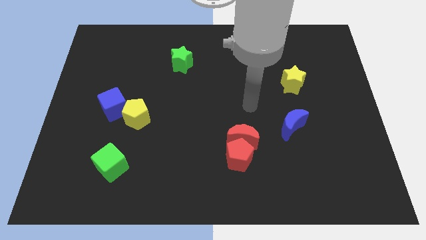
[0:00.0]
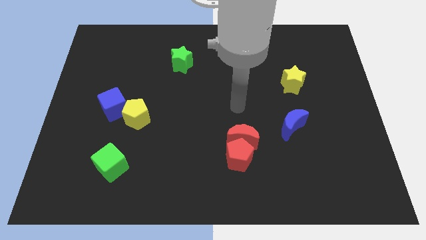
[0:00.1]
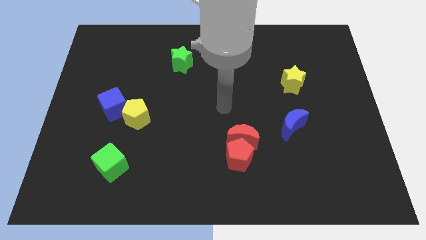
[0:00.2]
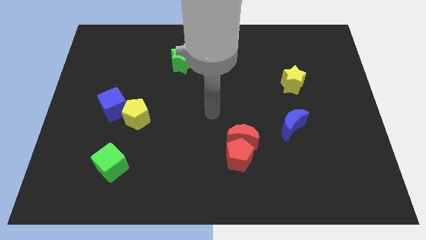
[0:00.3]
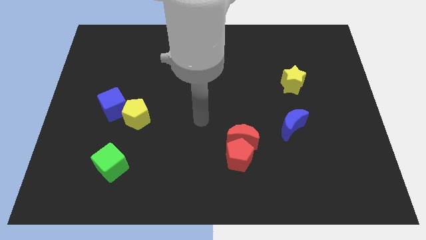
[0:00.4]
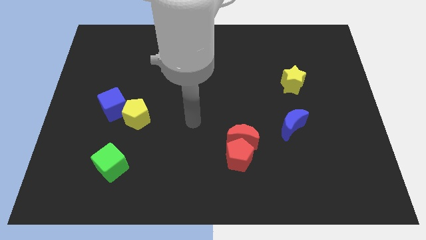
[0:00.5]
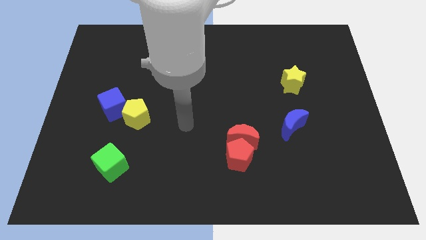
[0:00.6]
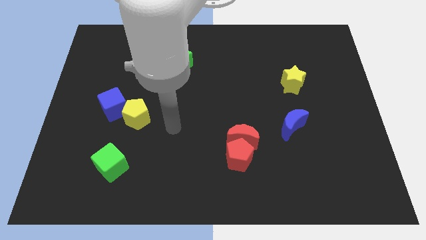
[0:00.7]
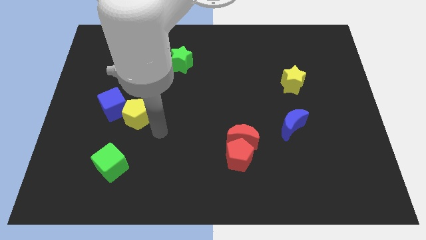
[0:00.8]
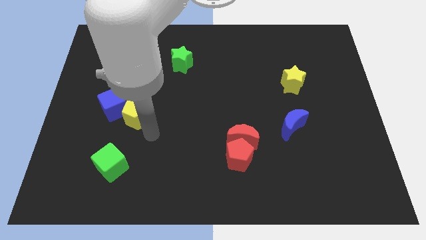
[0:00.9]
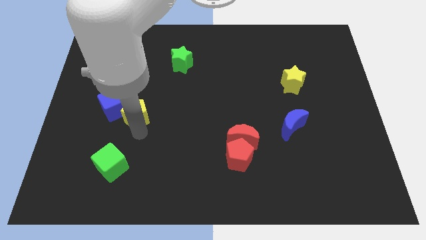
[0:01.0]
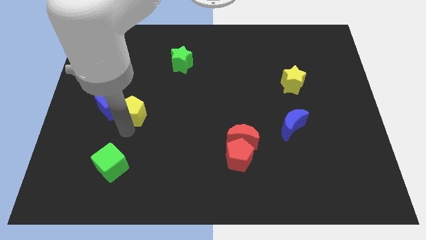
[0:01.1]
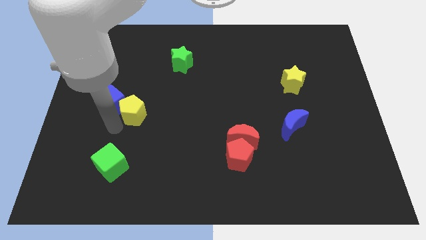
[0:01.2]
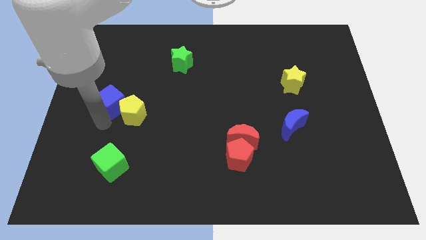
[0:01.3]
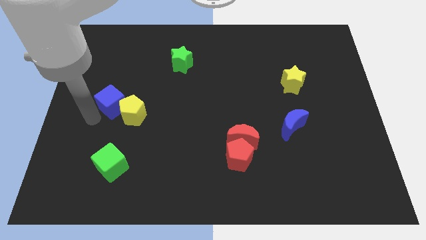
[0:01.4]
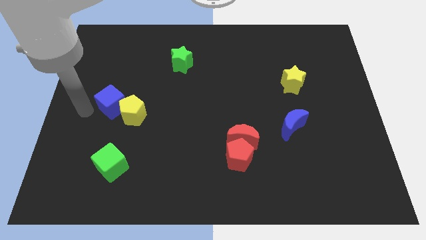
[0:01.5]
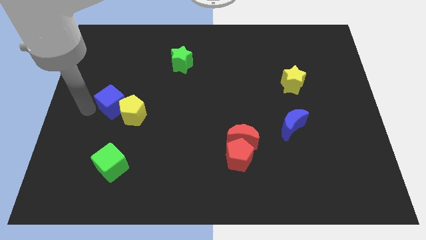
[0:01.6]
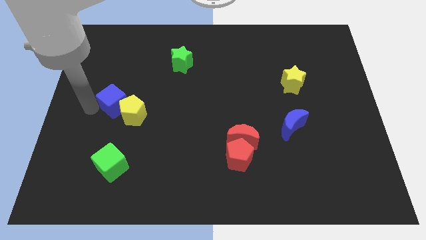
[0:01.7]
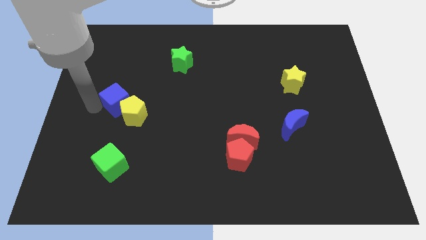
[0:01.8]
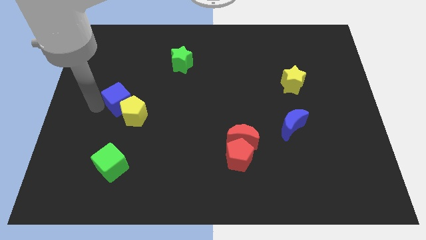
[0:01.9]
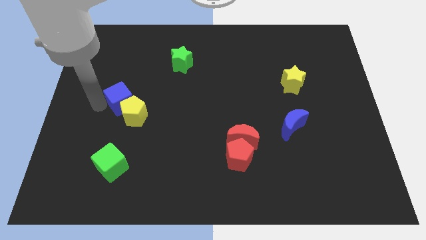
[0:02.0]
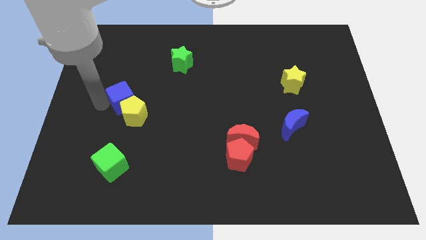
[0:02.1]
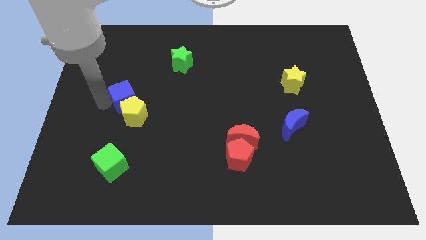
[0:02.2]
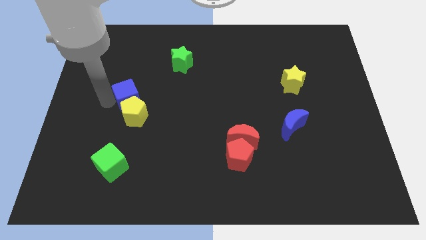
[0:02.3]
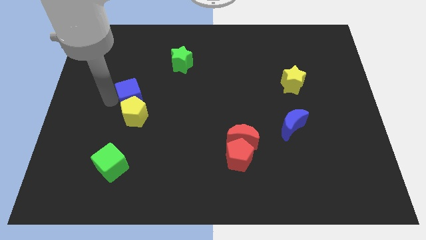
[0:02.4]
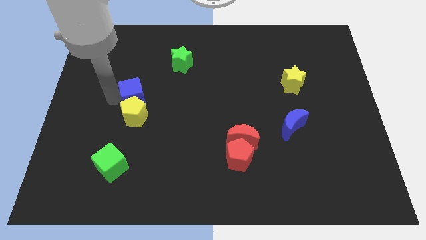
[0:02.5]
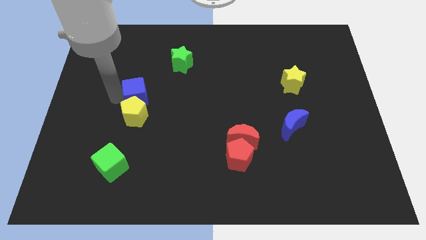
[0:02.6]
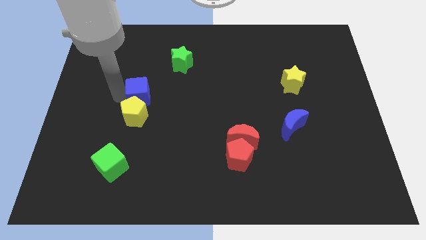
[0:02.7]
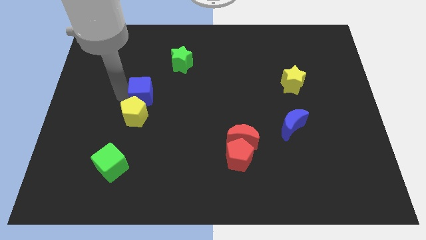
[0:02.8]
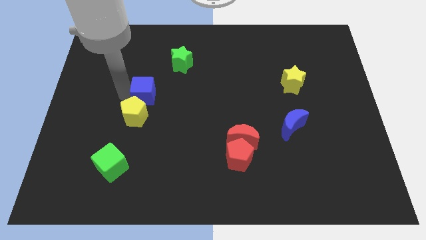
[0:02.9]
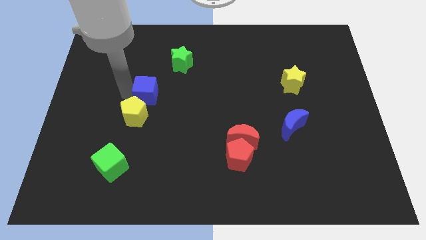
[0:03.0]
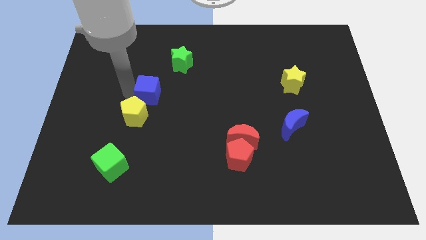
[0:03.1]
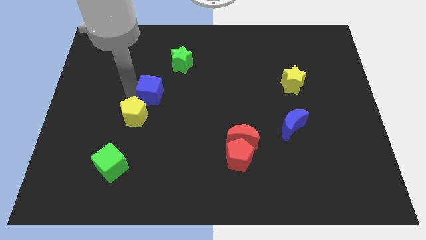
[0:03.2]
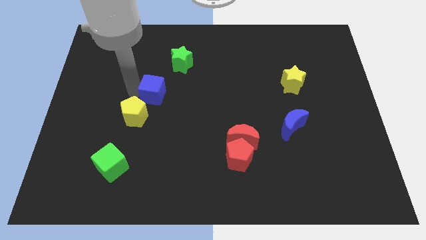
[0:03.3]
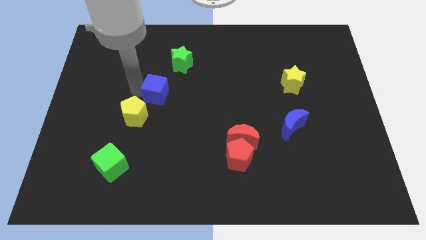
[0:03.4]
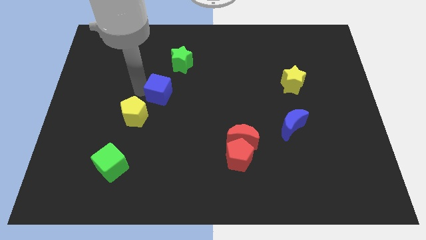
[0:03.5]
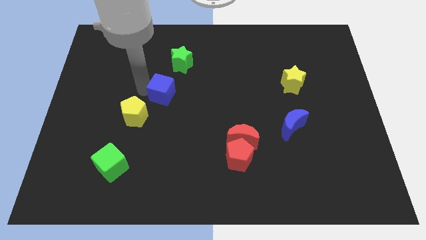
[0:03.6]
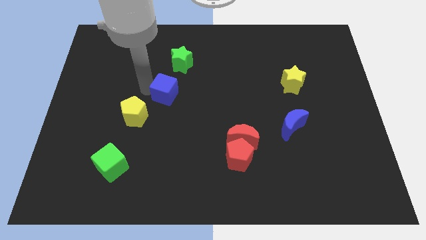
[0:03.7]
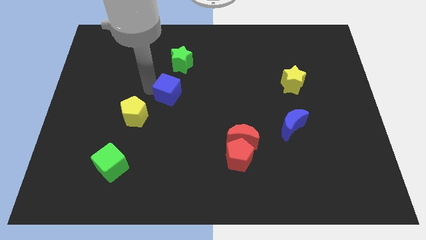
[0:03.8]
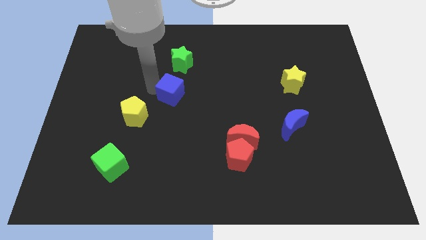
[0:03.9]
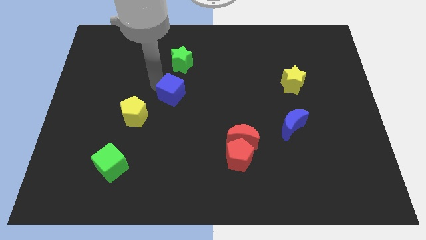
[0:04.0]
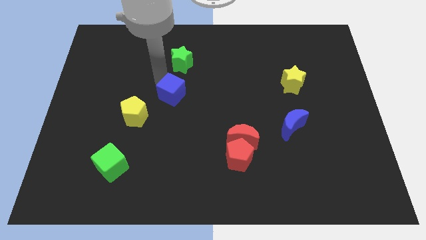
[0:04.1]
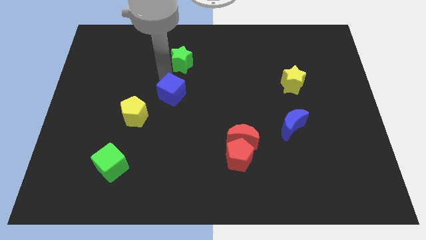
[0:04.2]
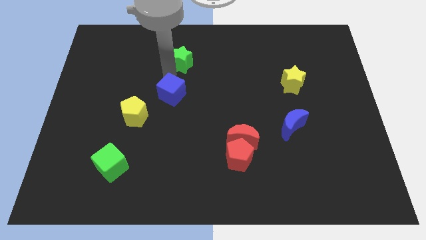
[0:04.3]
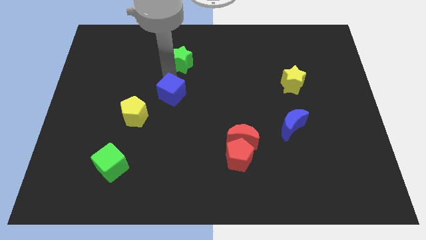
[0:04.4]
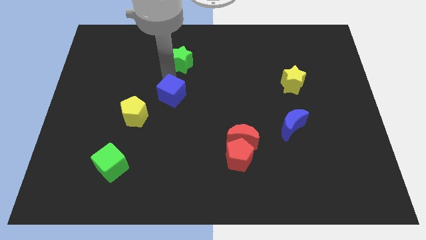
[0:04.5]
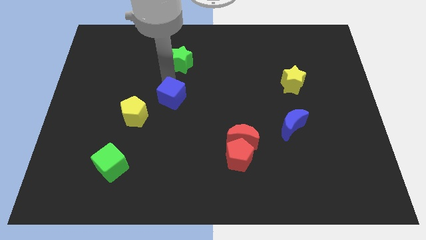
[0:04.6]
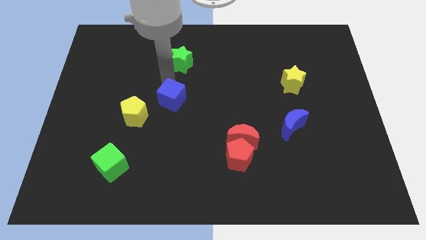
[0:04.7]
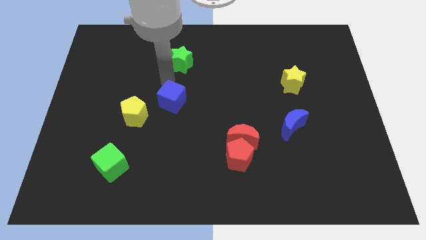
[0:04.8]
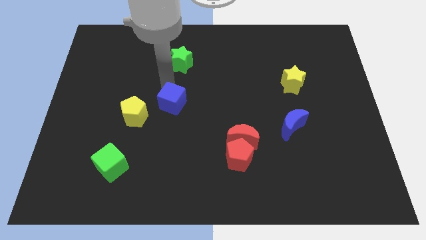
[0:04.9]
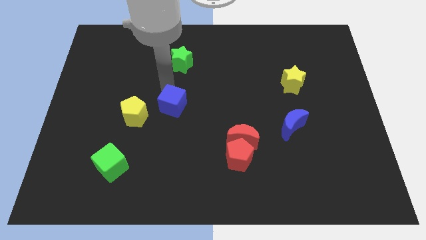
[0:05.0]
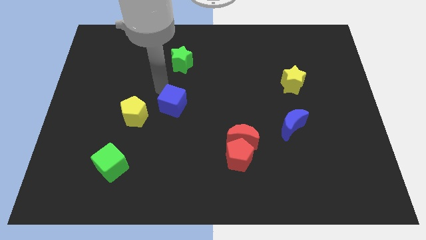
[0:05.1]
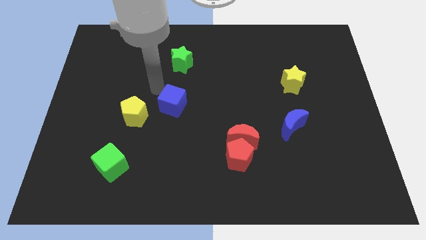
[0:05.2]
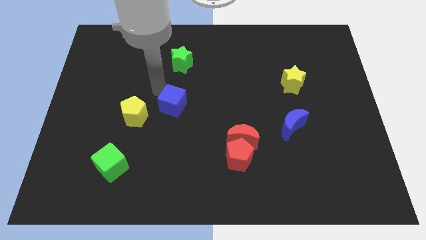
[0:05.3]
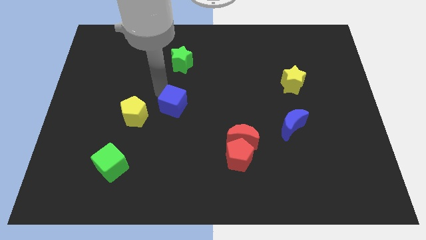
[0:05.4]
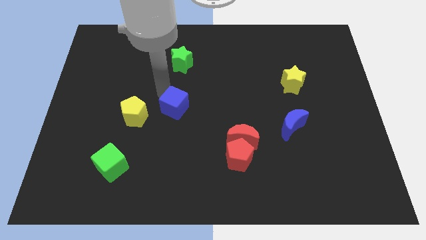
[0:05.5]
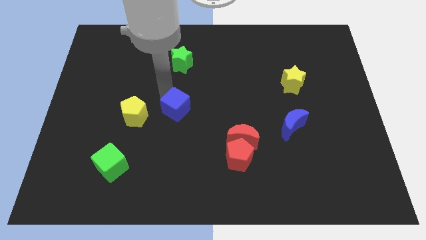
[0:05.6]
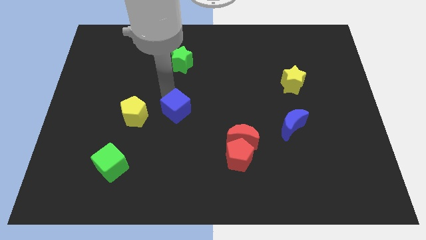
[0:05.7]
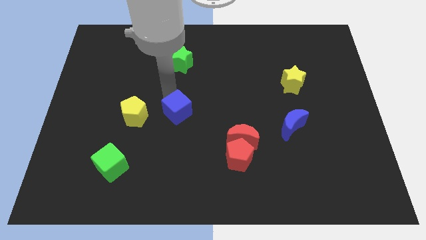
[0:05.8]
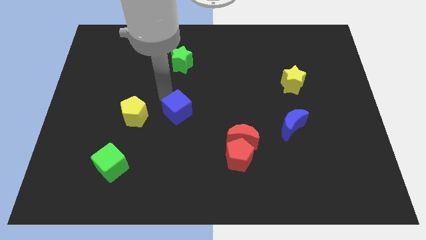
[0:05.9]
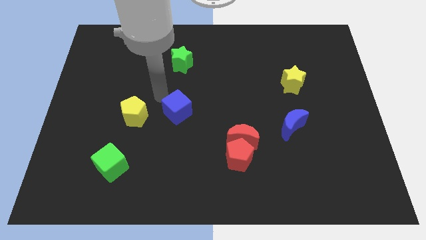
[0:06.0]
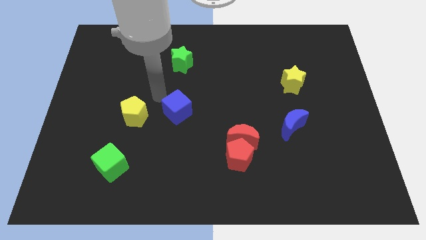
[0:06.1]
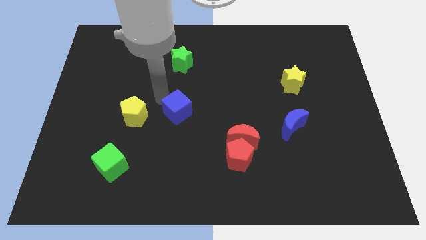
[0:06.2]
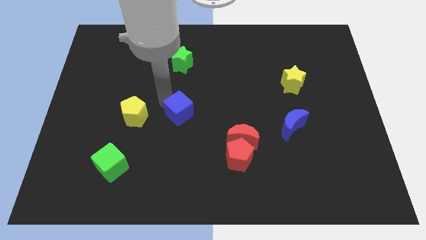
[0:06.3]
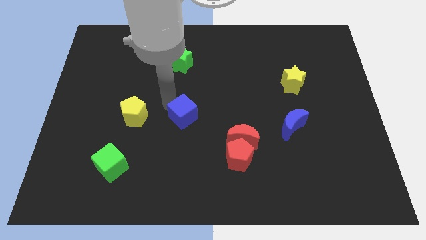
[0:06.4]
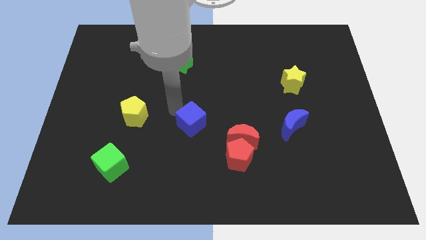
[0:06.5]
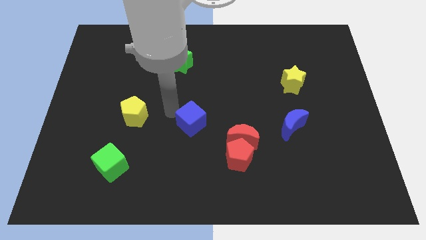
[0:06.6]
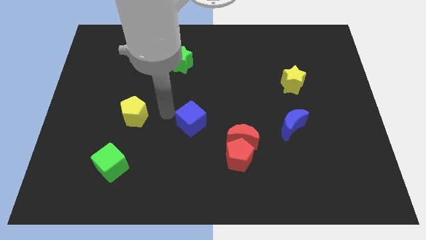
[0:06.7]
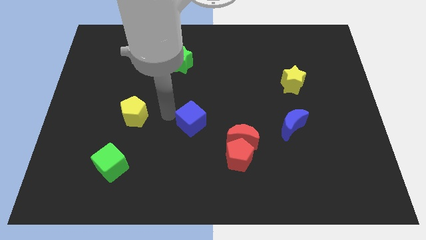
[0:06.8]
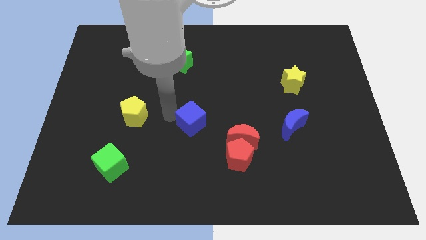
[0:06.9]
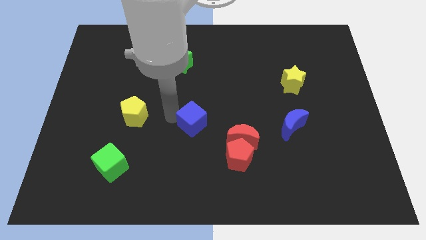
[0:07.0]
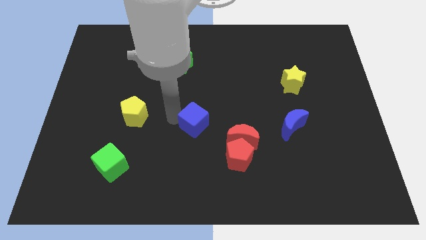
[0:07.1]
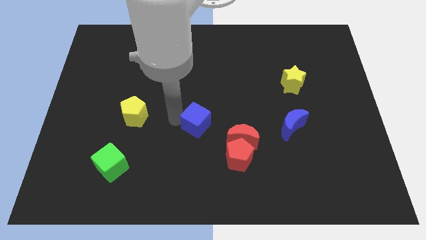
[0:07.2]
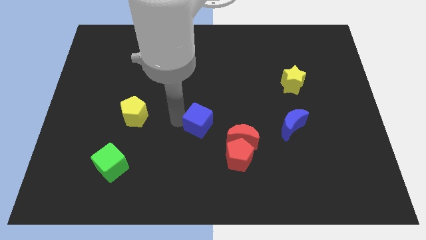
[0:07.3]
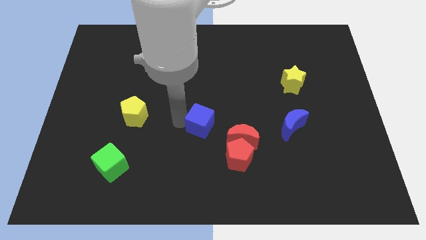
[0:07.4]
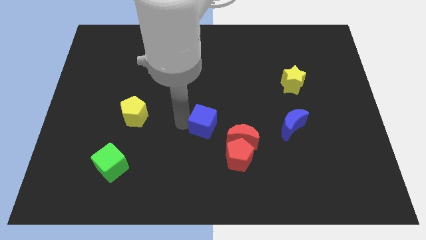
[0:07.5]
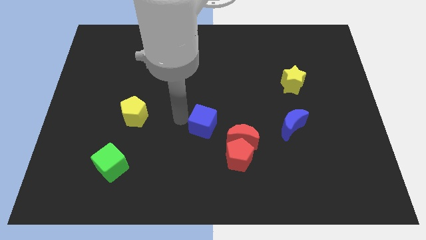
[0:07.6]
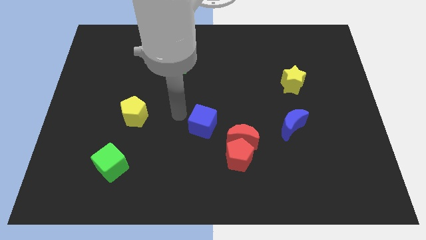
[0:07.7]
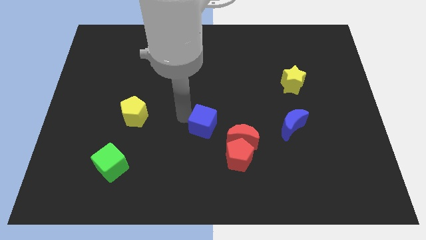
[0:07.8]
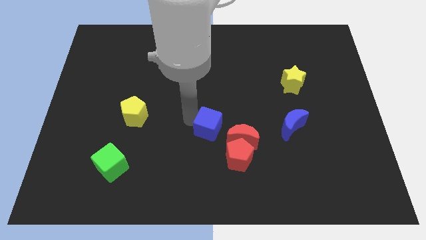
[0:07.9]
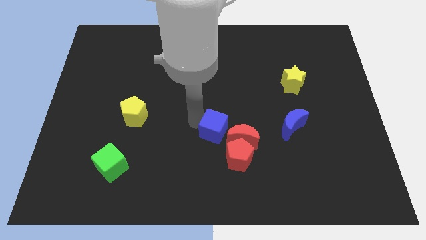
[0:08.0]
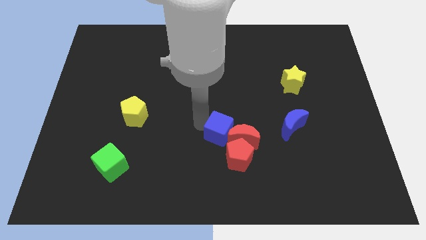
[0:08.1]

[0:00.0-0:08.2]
move the blue cube close to the red moon
